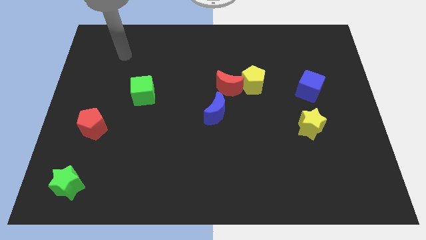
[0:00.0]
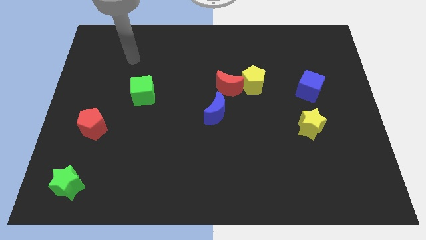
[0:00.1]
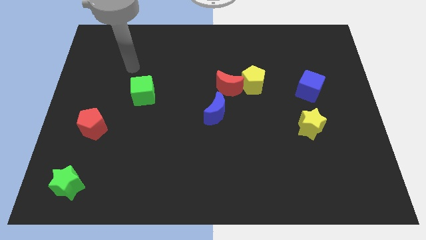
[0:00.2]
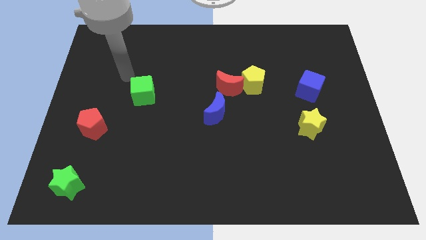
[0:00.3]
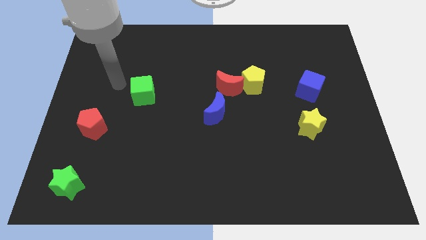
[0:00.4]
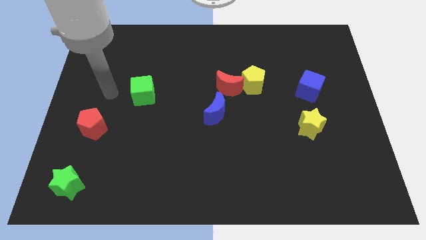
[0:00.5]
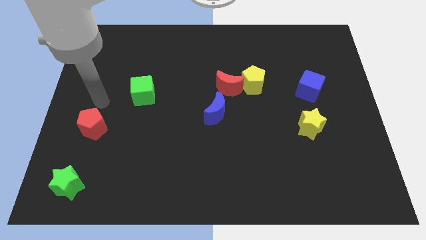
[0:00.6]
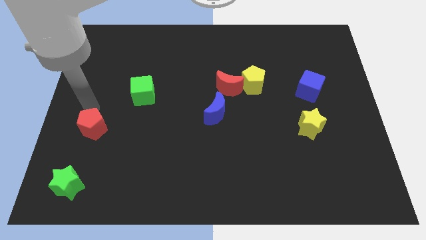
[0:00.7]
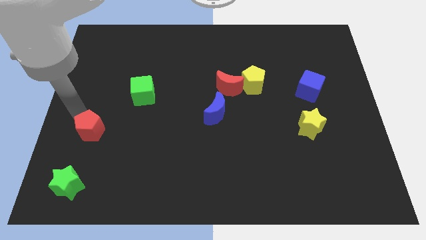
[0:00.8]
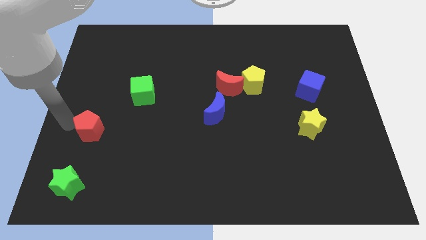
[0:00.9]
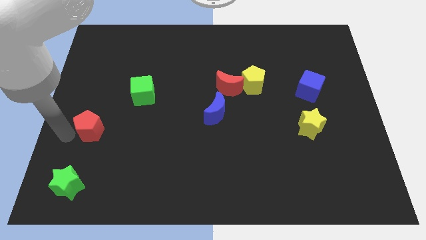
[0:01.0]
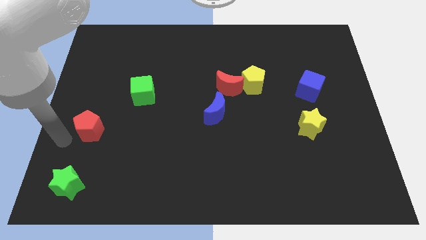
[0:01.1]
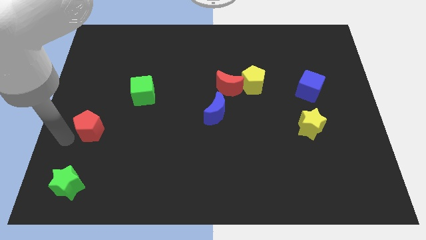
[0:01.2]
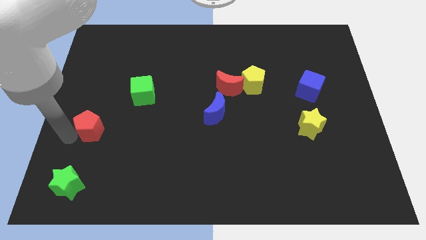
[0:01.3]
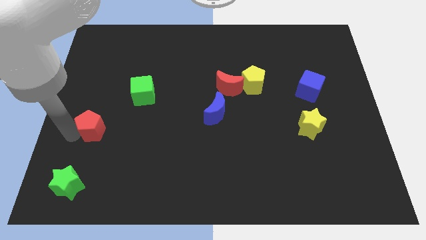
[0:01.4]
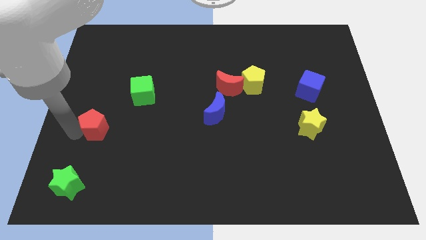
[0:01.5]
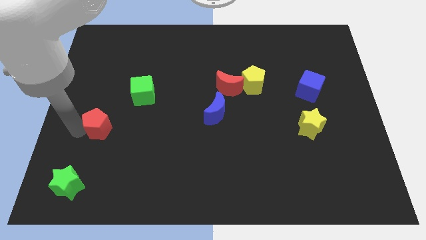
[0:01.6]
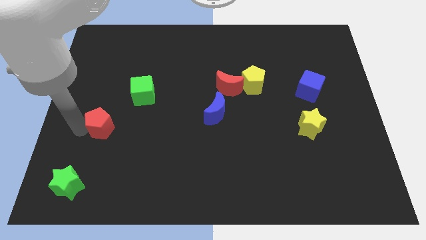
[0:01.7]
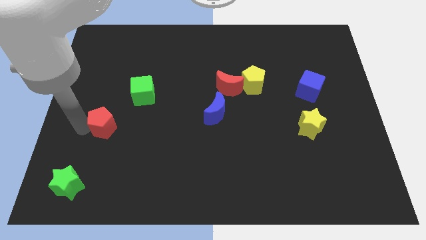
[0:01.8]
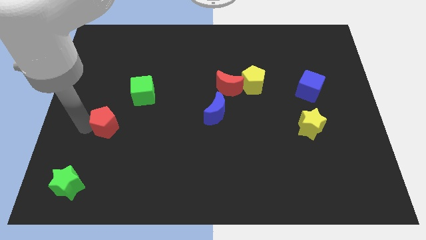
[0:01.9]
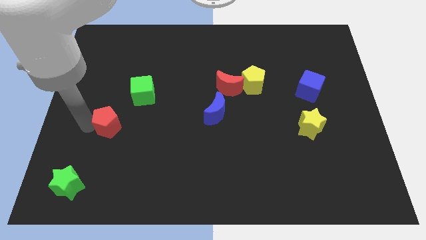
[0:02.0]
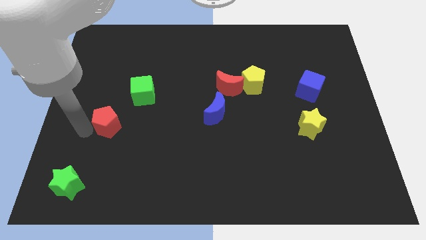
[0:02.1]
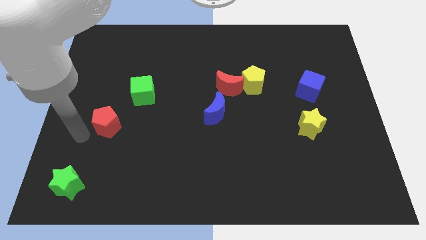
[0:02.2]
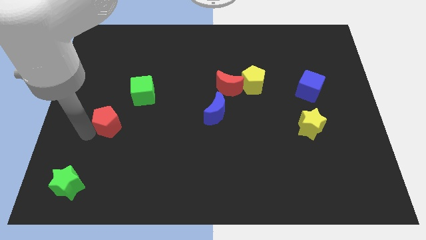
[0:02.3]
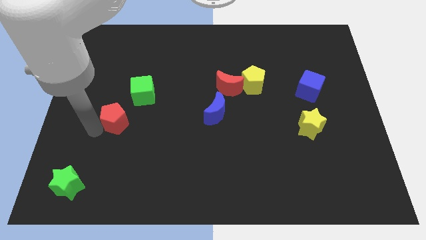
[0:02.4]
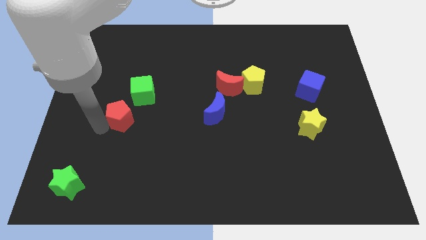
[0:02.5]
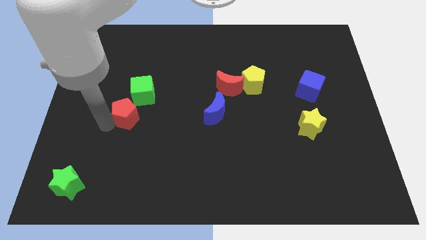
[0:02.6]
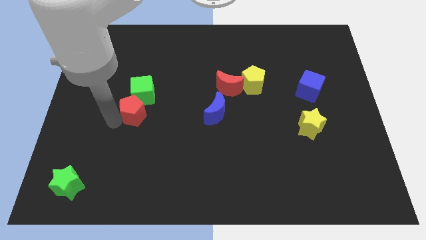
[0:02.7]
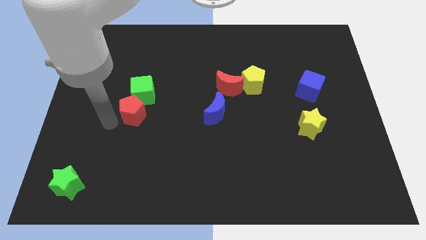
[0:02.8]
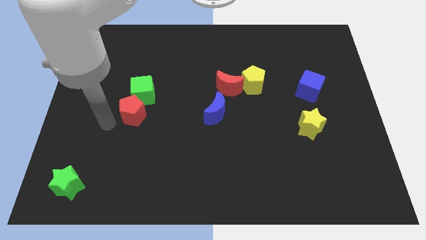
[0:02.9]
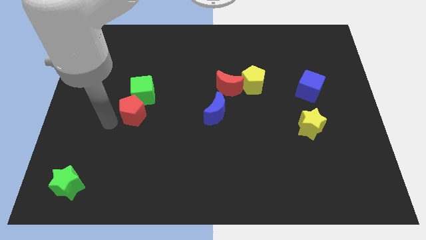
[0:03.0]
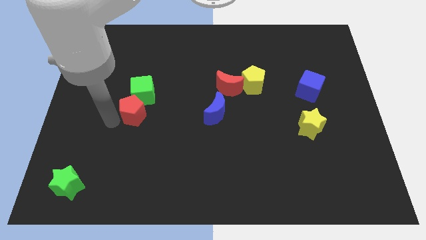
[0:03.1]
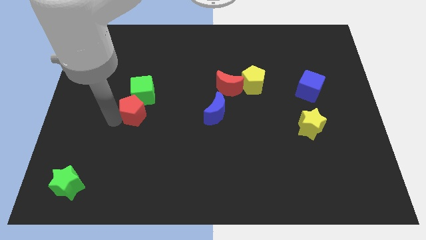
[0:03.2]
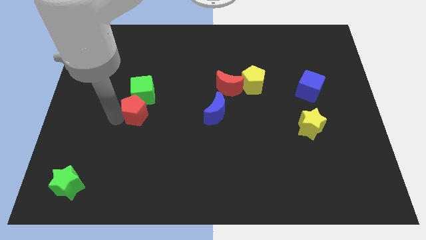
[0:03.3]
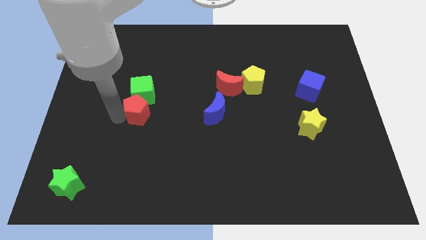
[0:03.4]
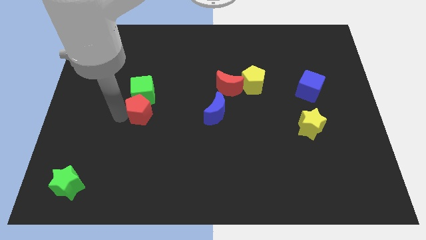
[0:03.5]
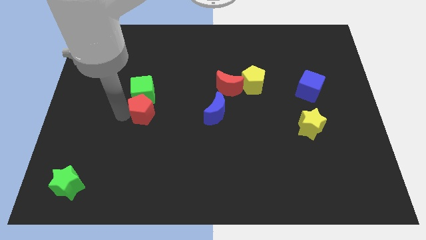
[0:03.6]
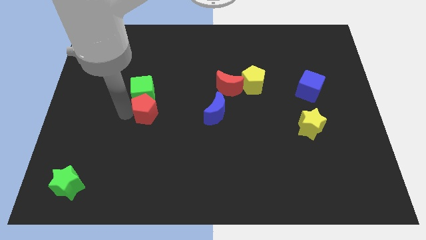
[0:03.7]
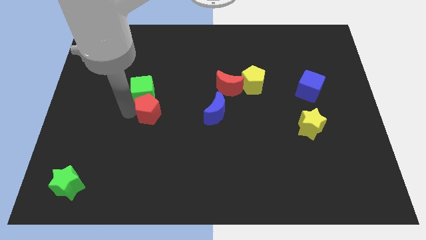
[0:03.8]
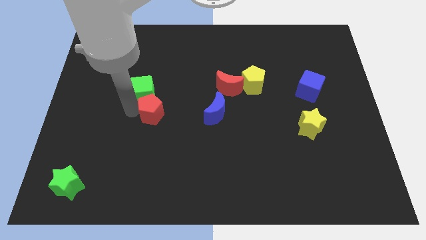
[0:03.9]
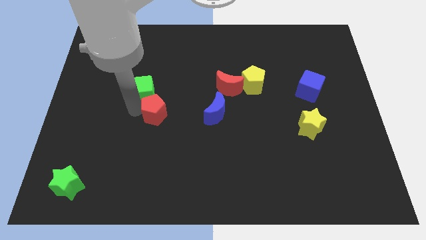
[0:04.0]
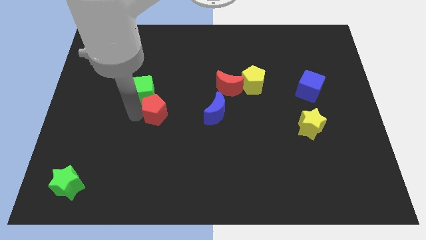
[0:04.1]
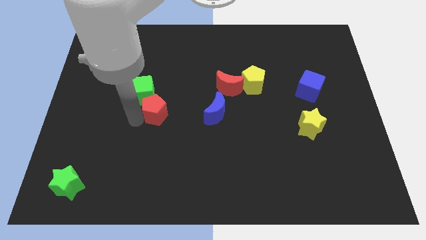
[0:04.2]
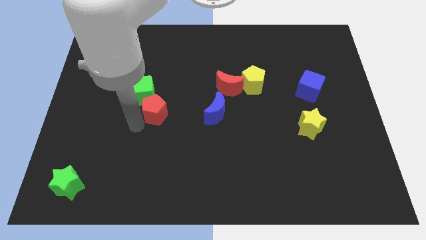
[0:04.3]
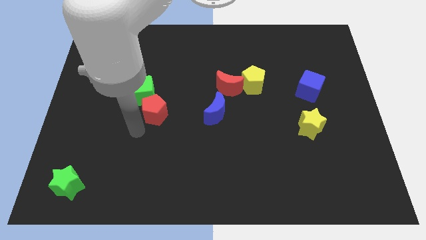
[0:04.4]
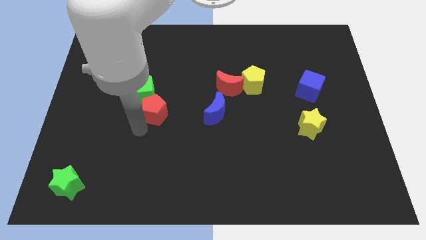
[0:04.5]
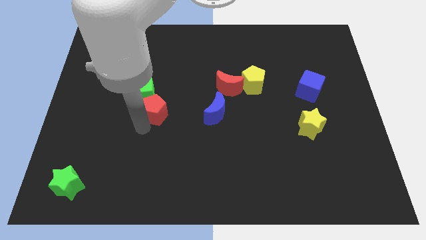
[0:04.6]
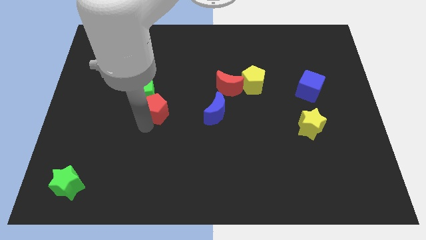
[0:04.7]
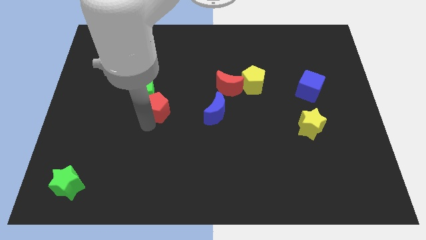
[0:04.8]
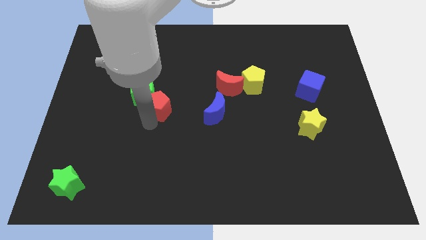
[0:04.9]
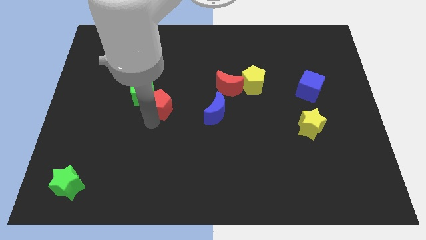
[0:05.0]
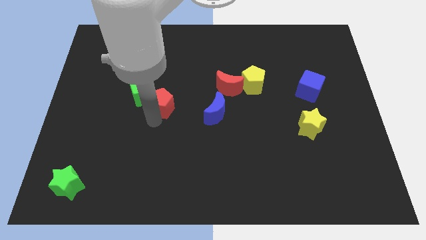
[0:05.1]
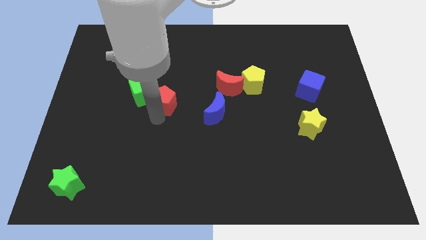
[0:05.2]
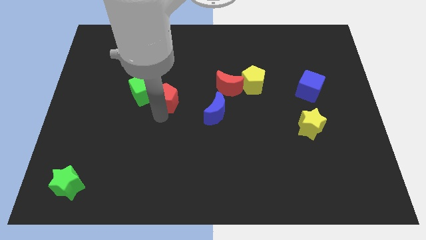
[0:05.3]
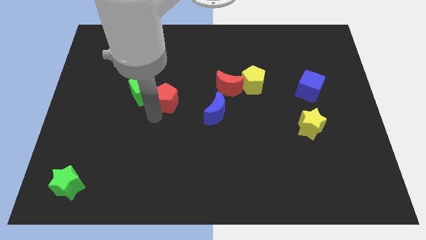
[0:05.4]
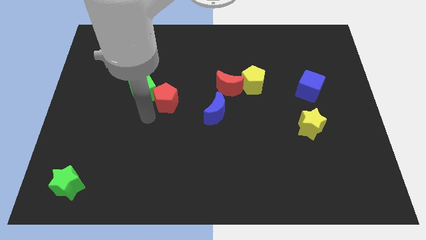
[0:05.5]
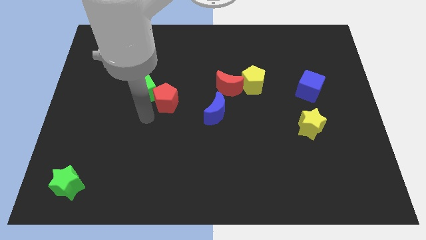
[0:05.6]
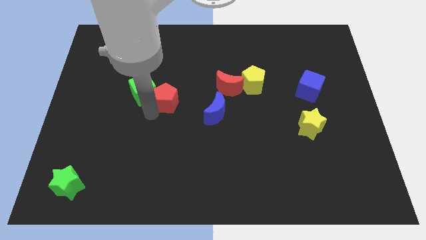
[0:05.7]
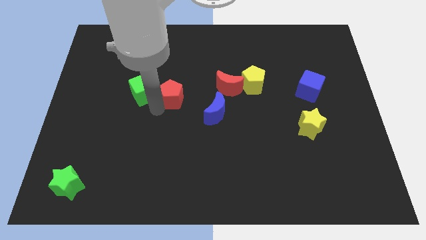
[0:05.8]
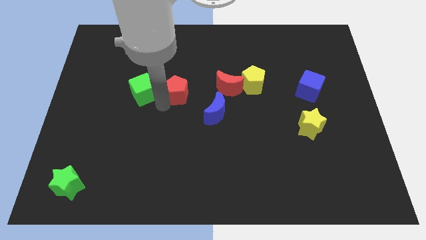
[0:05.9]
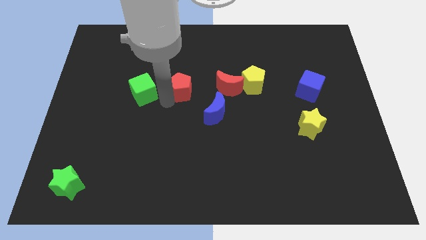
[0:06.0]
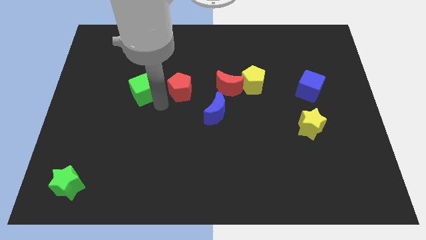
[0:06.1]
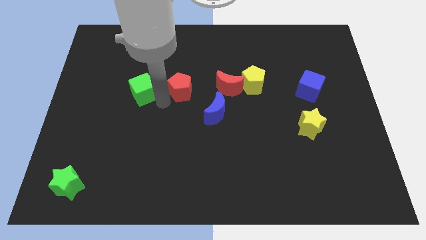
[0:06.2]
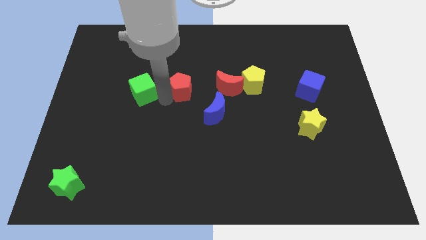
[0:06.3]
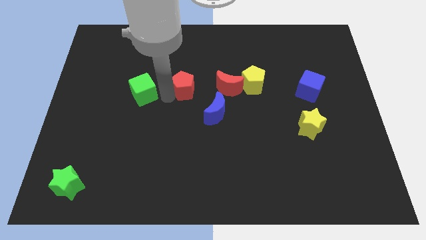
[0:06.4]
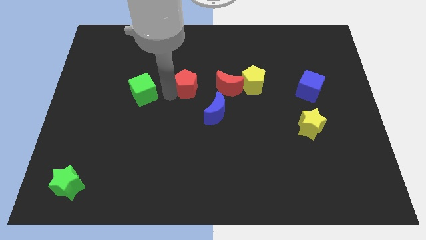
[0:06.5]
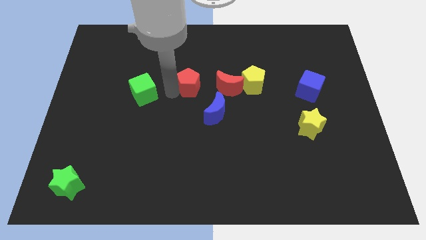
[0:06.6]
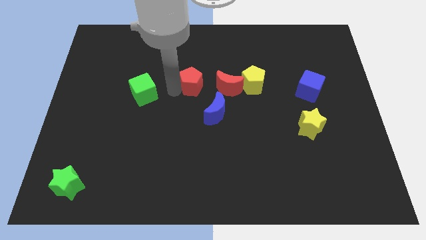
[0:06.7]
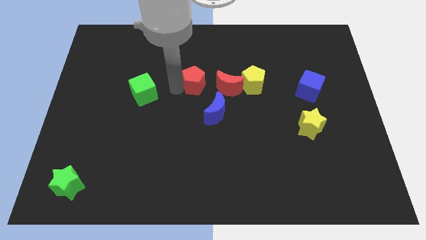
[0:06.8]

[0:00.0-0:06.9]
slide the red pentagon diagonally up and to the left of the red moon
